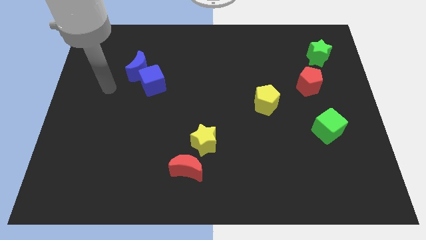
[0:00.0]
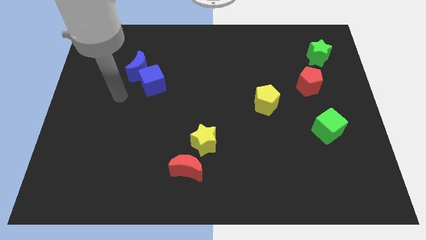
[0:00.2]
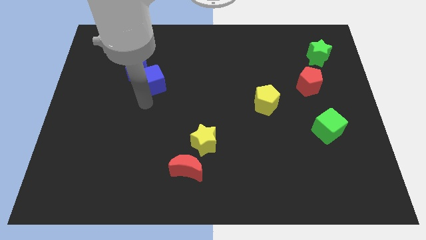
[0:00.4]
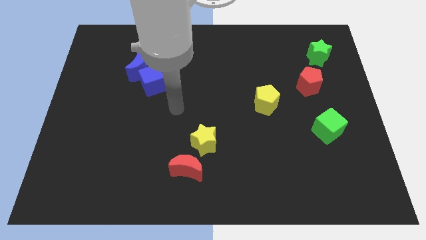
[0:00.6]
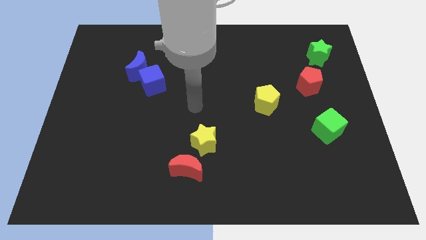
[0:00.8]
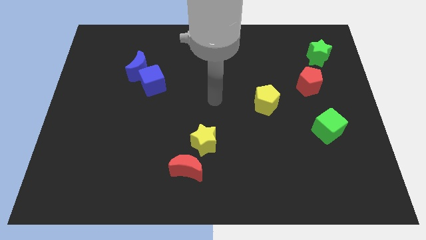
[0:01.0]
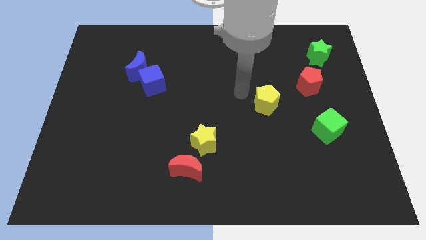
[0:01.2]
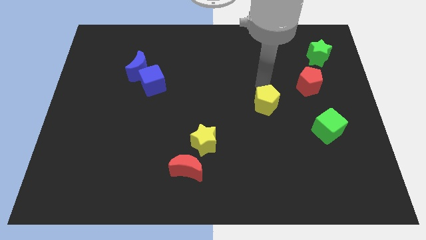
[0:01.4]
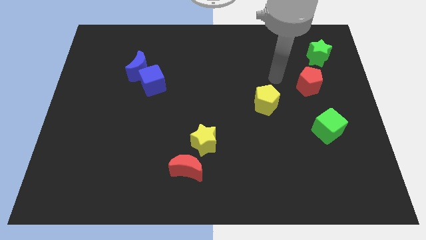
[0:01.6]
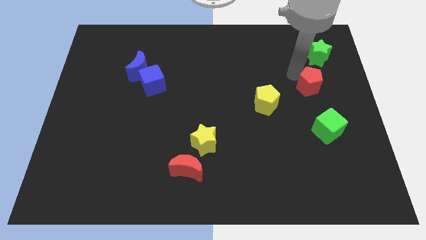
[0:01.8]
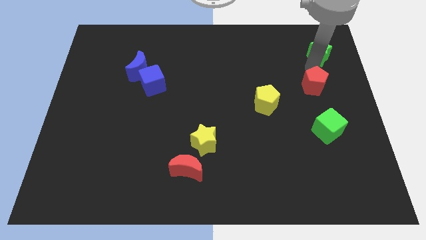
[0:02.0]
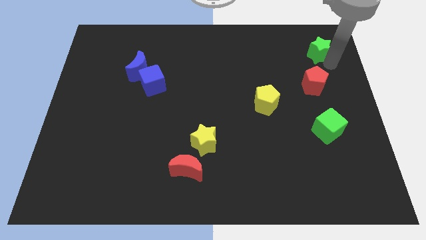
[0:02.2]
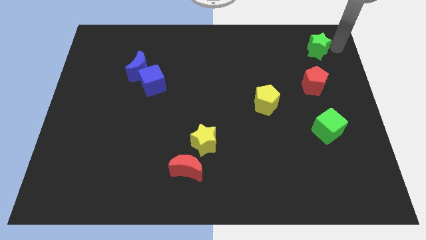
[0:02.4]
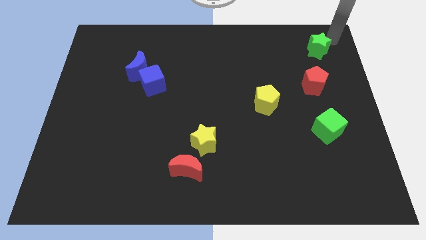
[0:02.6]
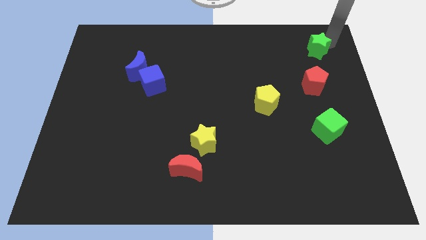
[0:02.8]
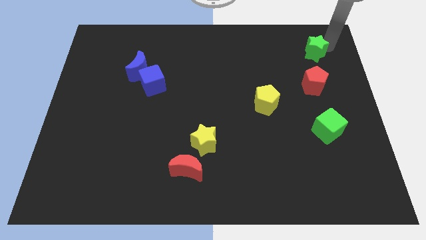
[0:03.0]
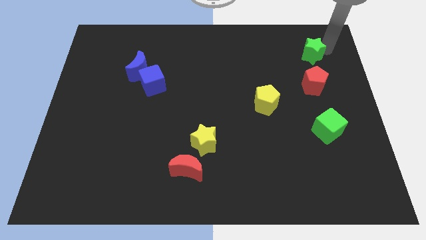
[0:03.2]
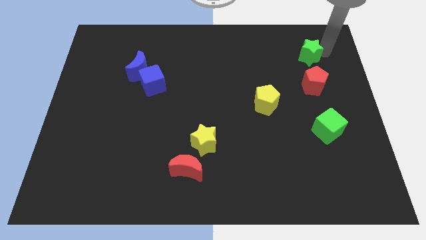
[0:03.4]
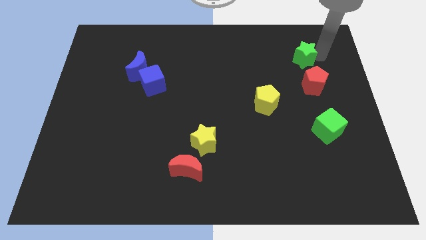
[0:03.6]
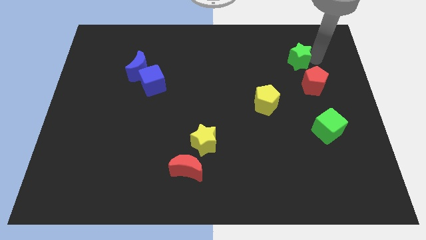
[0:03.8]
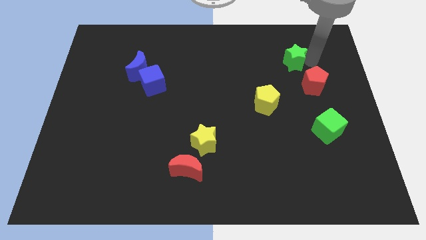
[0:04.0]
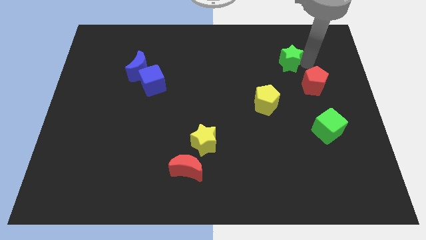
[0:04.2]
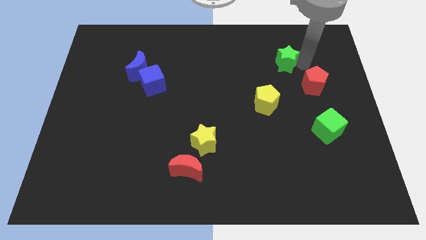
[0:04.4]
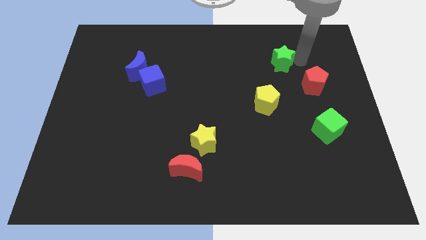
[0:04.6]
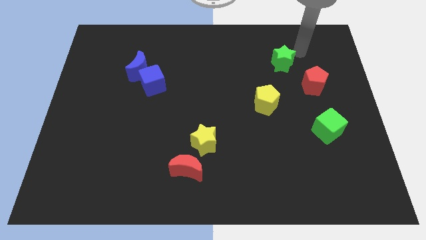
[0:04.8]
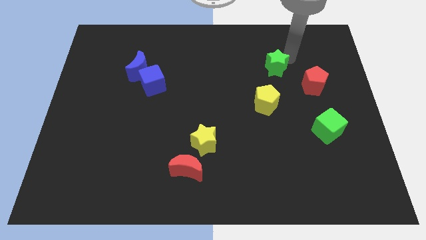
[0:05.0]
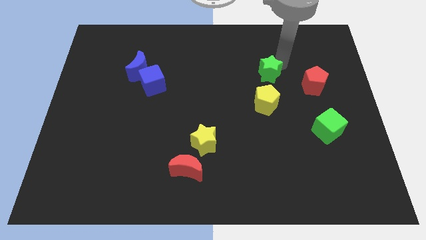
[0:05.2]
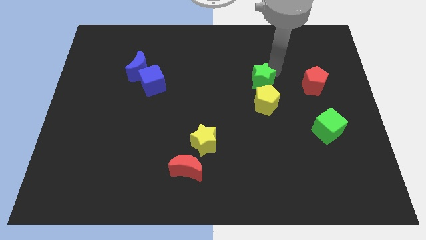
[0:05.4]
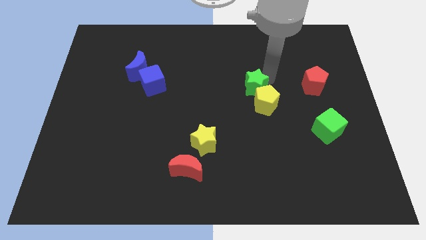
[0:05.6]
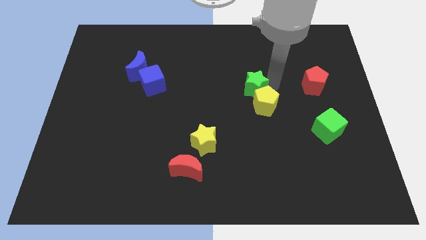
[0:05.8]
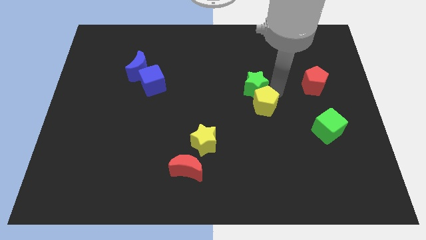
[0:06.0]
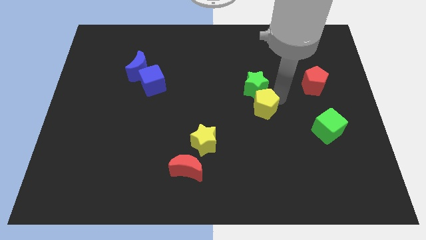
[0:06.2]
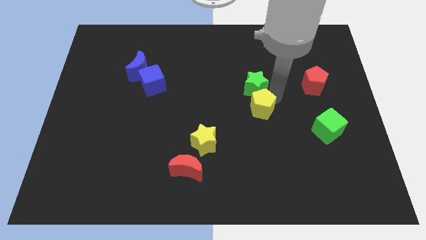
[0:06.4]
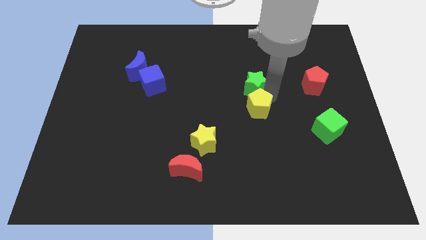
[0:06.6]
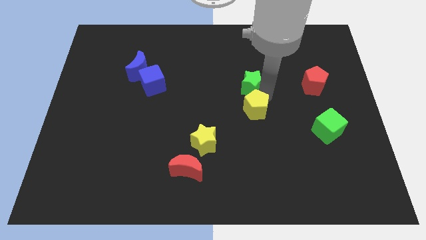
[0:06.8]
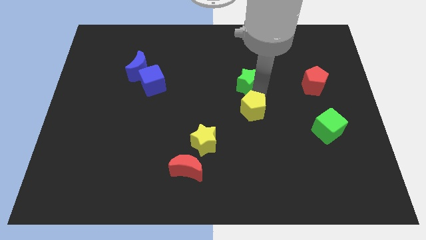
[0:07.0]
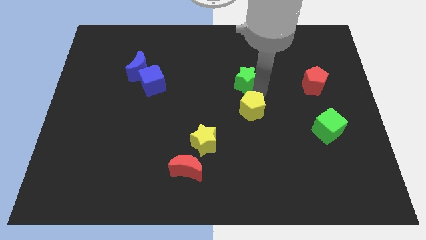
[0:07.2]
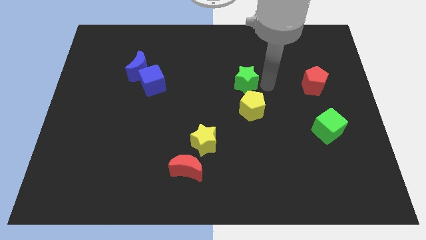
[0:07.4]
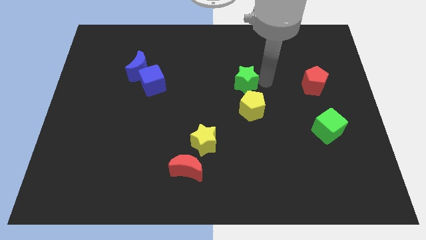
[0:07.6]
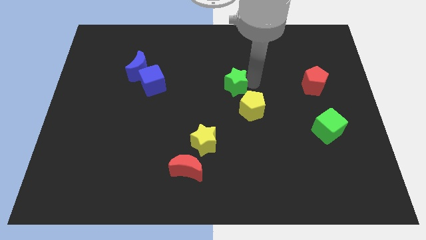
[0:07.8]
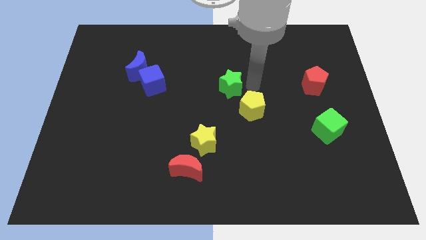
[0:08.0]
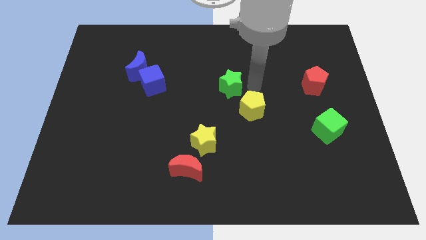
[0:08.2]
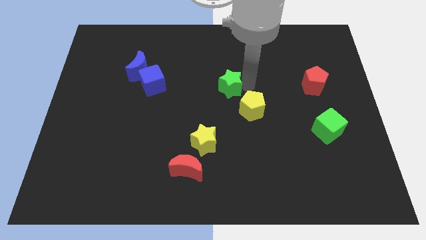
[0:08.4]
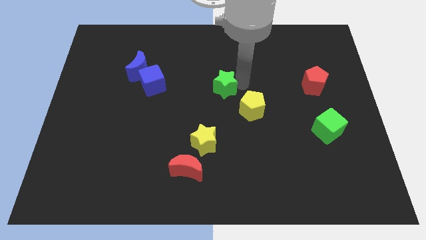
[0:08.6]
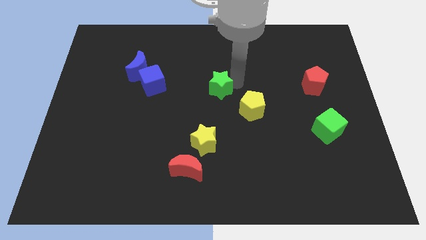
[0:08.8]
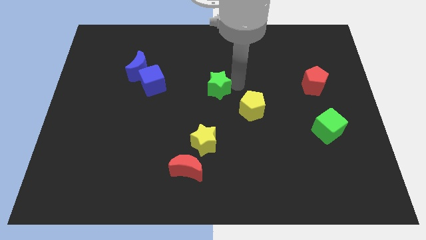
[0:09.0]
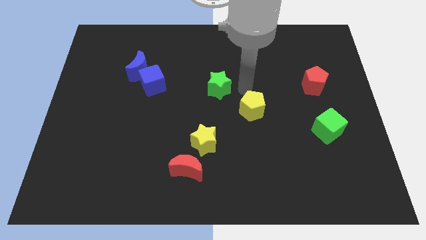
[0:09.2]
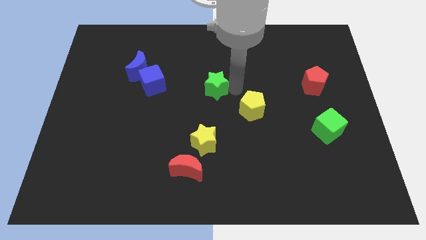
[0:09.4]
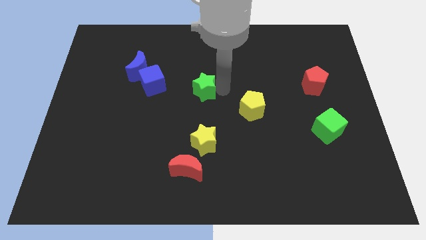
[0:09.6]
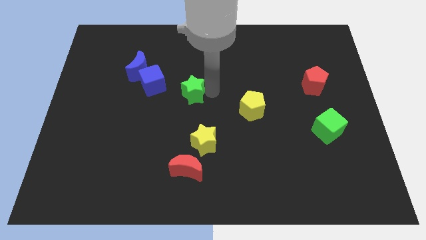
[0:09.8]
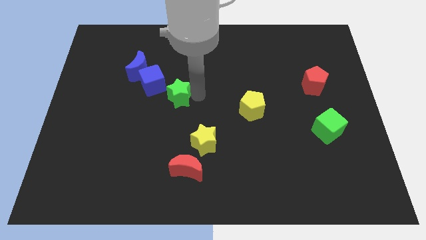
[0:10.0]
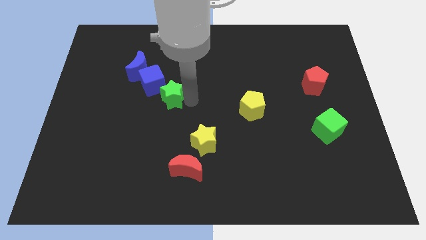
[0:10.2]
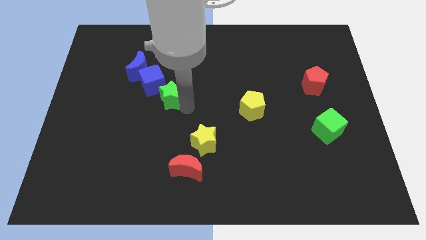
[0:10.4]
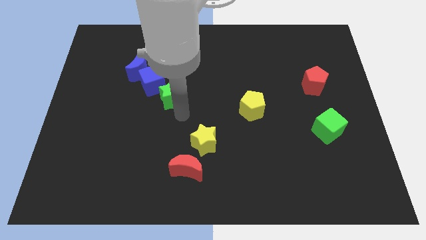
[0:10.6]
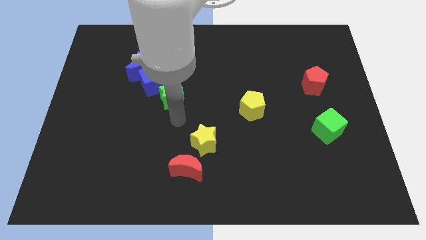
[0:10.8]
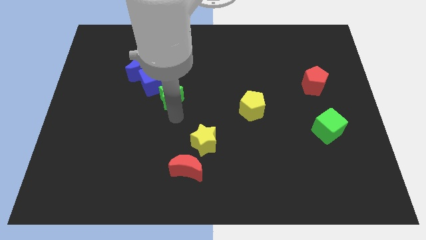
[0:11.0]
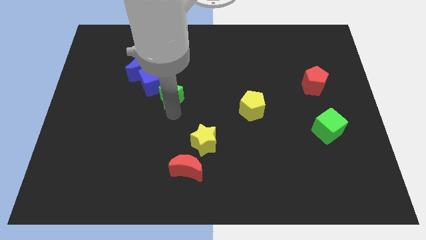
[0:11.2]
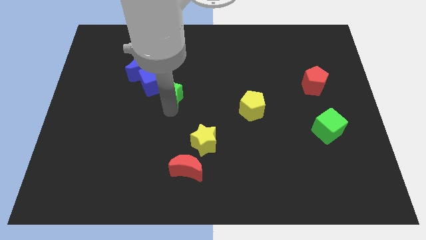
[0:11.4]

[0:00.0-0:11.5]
slide the green star close to the blue cube

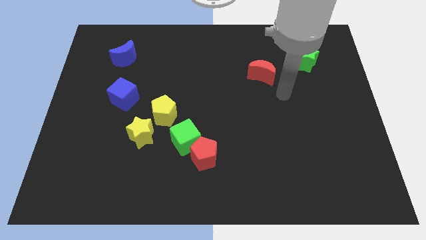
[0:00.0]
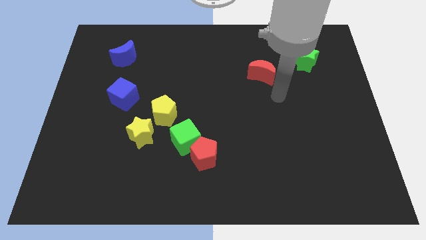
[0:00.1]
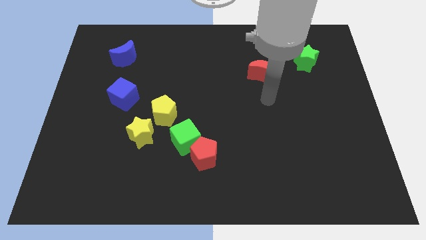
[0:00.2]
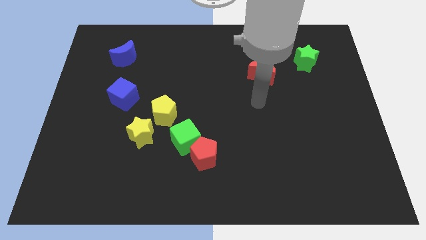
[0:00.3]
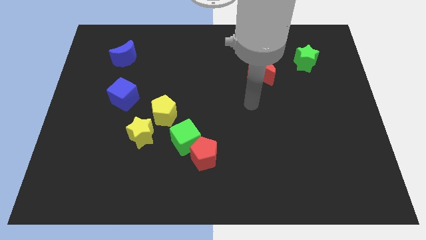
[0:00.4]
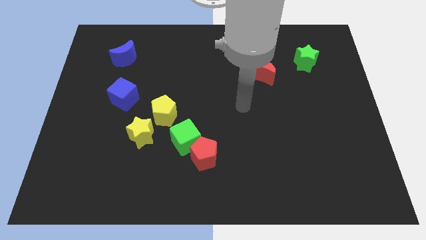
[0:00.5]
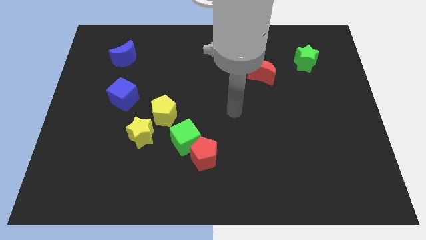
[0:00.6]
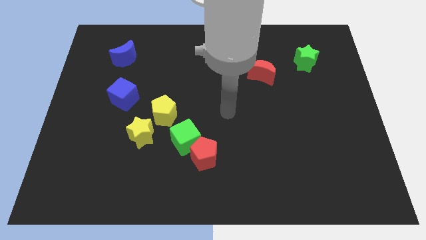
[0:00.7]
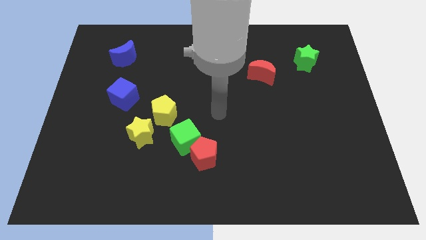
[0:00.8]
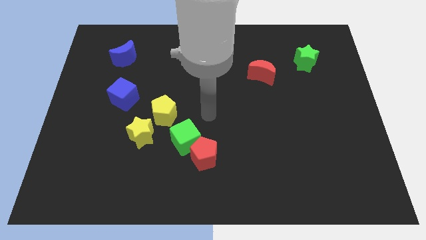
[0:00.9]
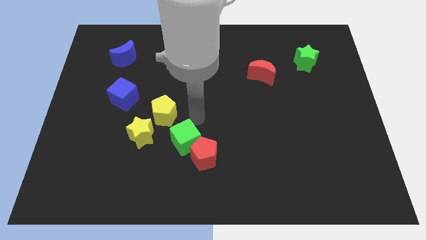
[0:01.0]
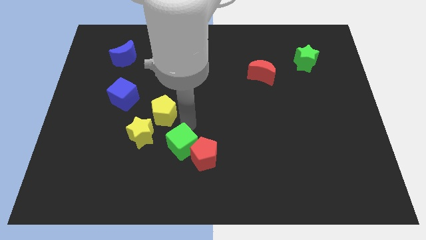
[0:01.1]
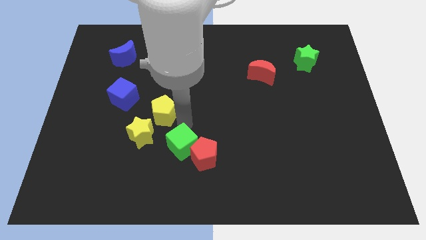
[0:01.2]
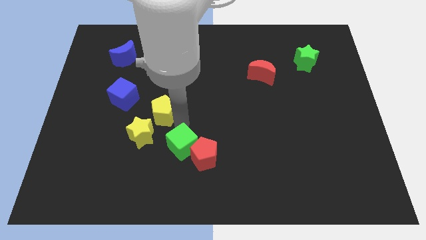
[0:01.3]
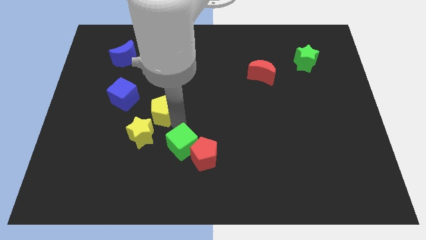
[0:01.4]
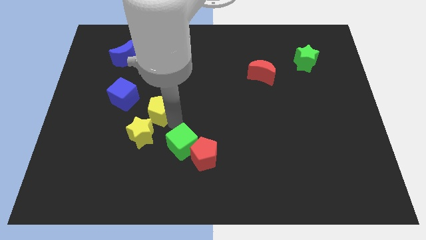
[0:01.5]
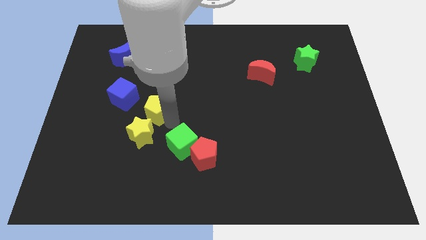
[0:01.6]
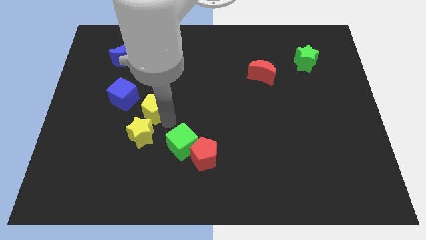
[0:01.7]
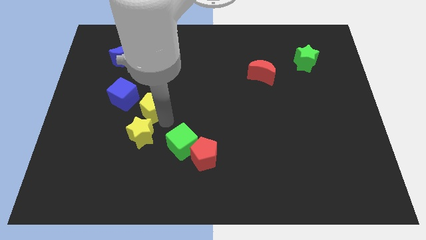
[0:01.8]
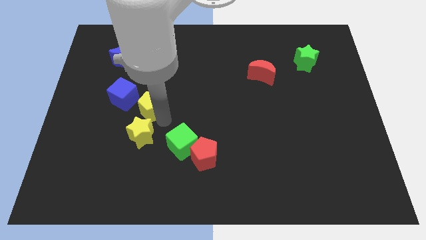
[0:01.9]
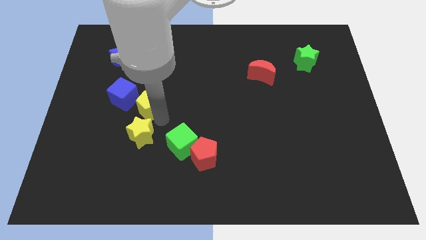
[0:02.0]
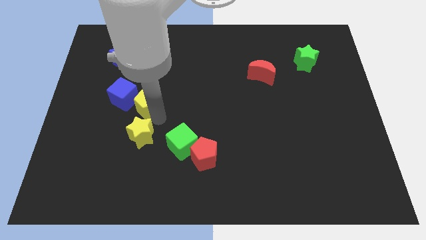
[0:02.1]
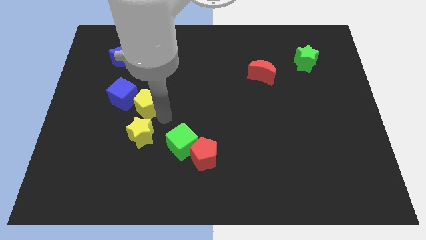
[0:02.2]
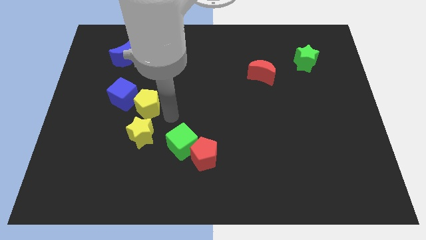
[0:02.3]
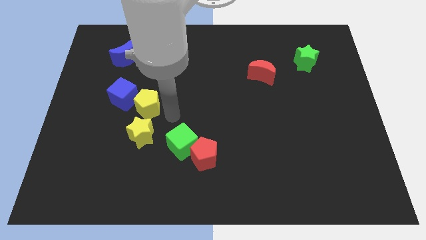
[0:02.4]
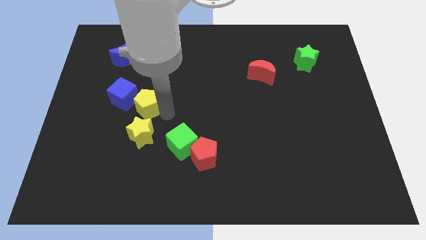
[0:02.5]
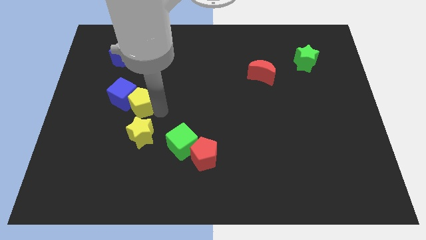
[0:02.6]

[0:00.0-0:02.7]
slide the yellow pentagon to the blue cube
